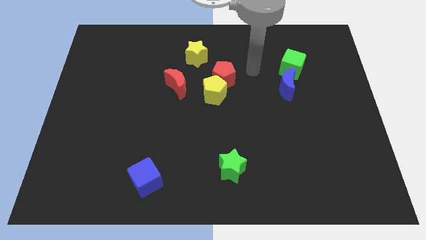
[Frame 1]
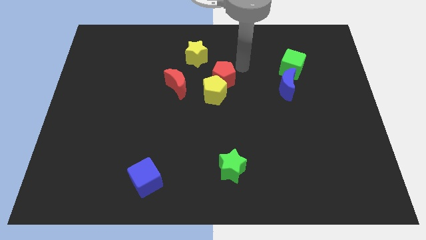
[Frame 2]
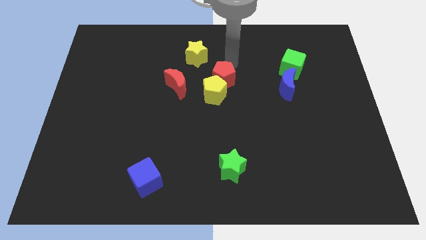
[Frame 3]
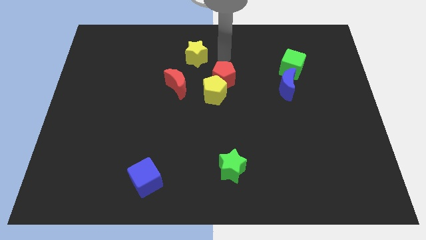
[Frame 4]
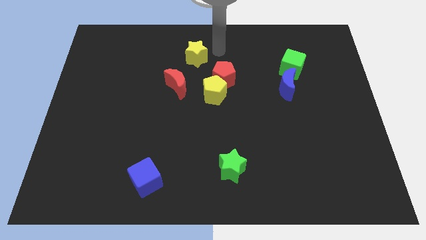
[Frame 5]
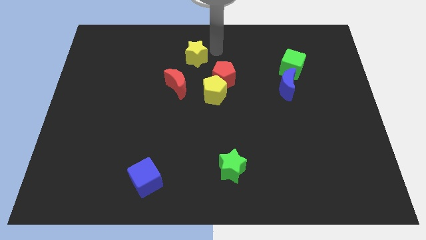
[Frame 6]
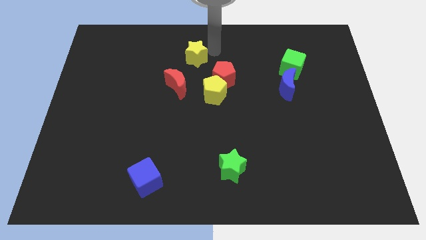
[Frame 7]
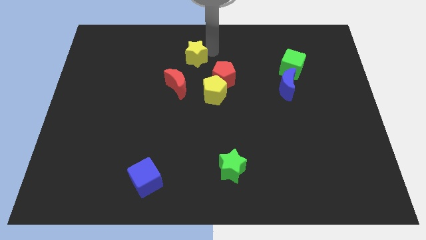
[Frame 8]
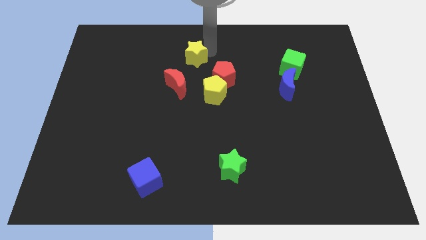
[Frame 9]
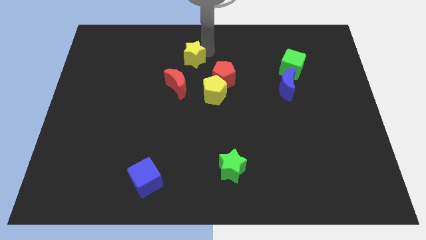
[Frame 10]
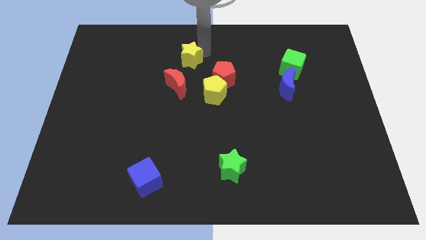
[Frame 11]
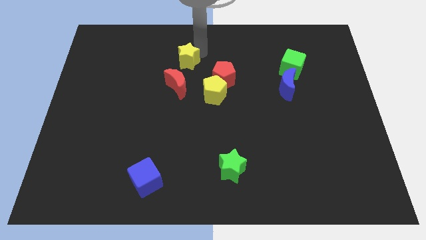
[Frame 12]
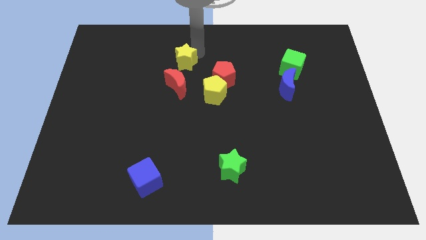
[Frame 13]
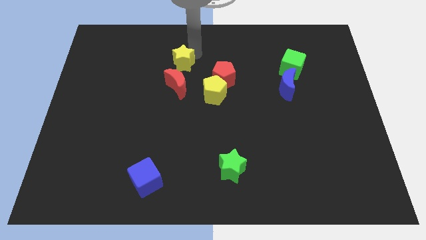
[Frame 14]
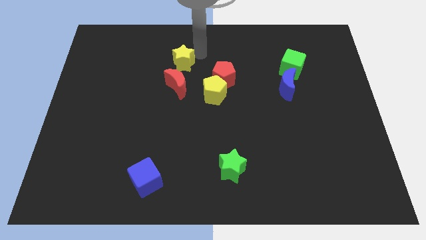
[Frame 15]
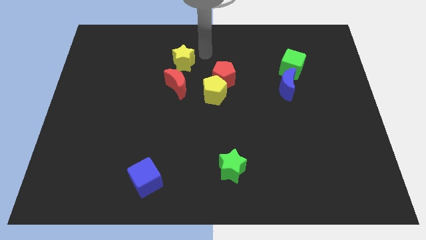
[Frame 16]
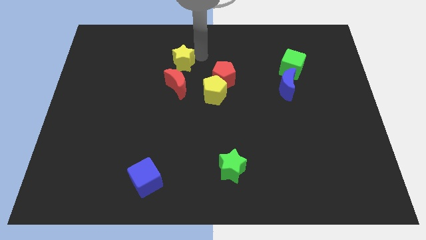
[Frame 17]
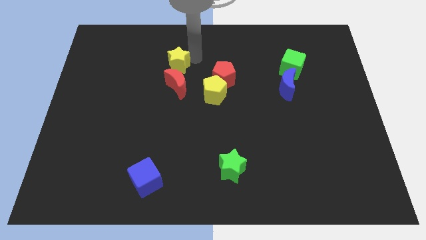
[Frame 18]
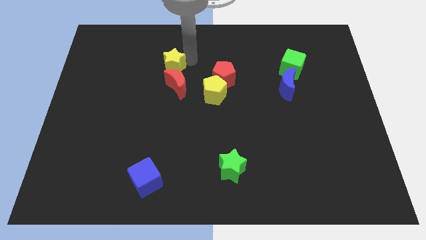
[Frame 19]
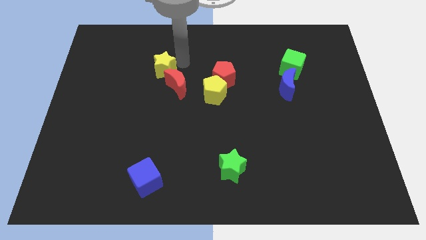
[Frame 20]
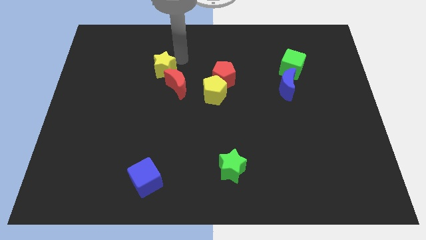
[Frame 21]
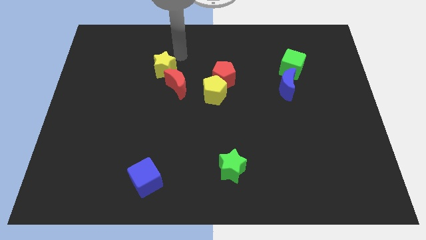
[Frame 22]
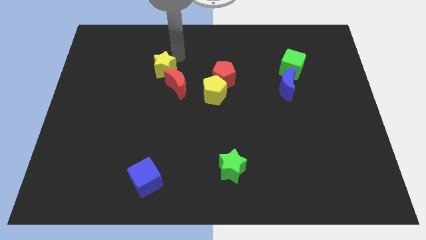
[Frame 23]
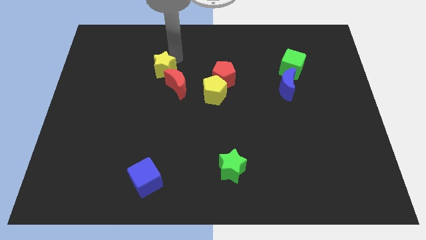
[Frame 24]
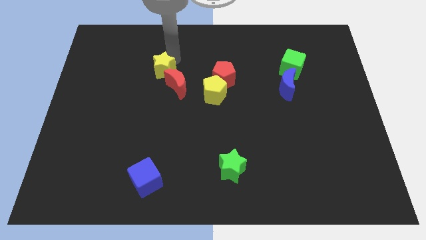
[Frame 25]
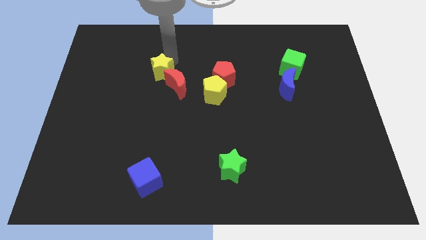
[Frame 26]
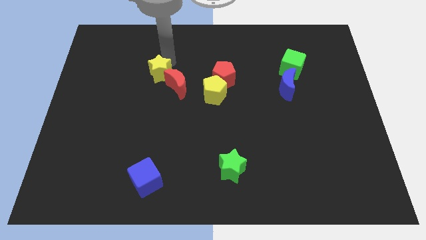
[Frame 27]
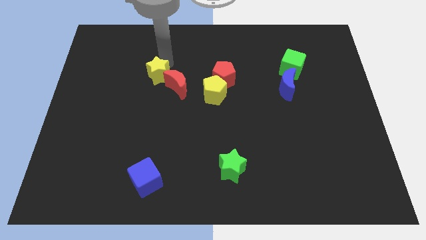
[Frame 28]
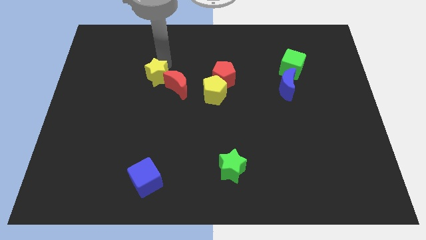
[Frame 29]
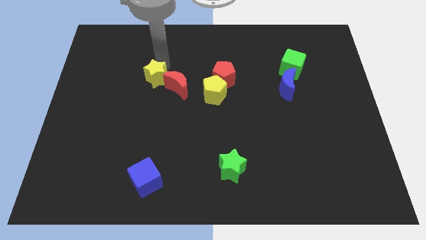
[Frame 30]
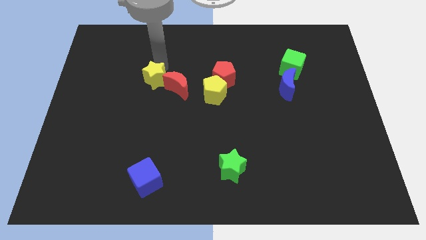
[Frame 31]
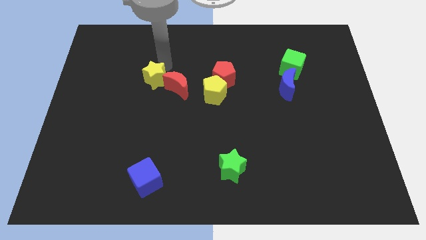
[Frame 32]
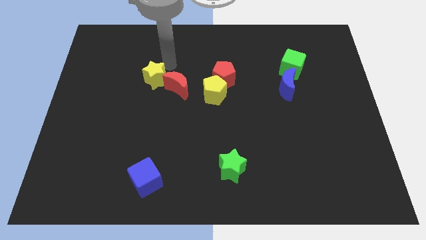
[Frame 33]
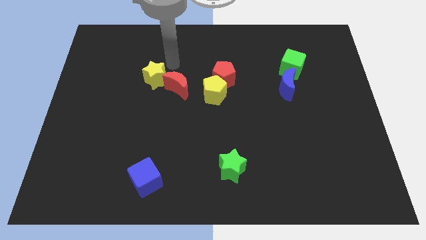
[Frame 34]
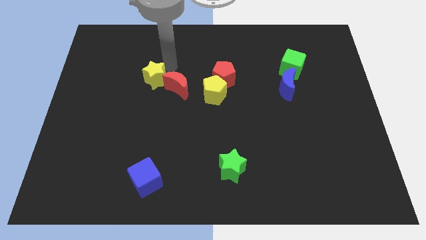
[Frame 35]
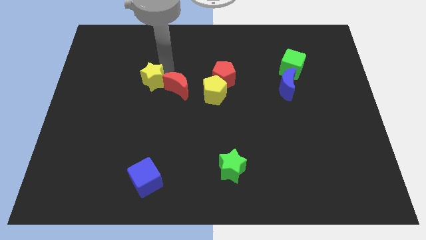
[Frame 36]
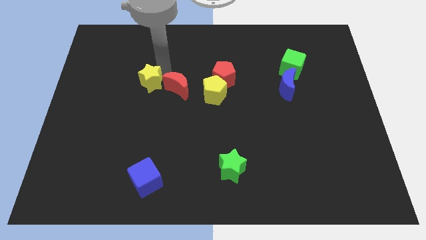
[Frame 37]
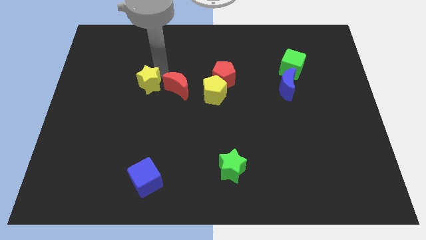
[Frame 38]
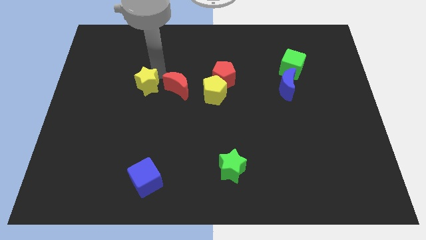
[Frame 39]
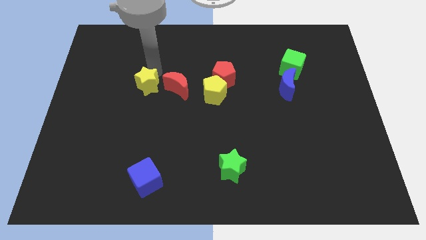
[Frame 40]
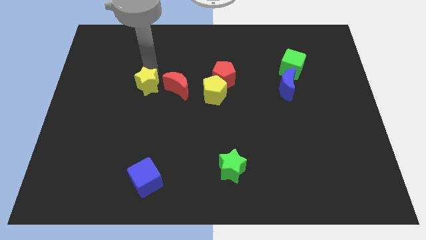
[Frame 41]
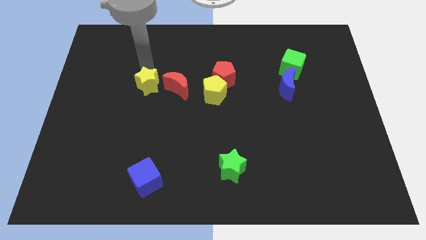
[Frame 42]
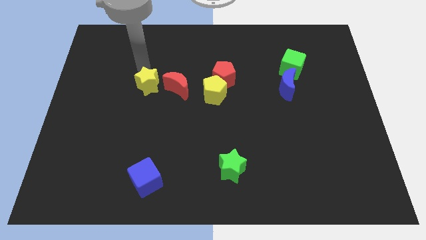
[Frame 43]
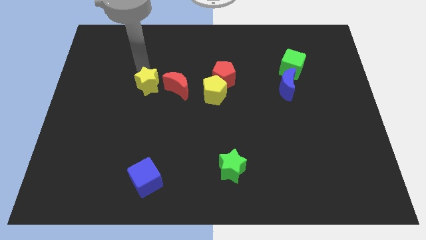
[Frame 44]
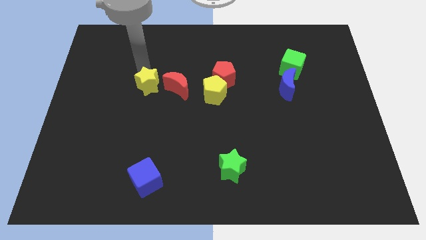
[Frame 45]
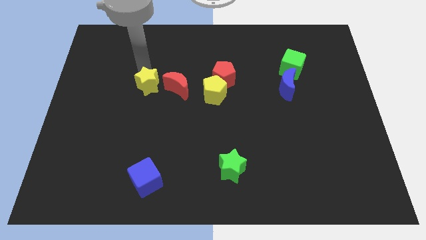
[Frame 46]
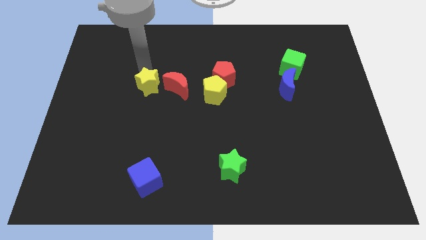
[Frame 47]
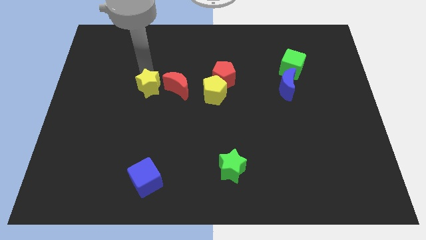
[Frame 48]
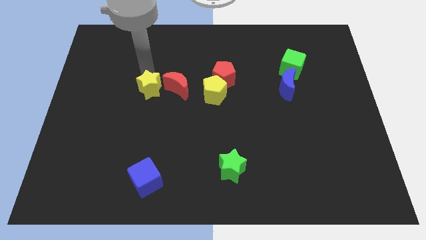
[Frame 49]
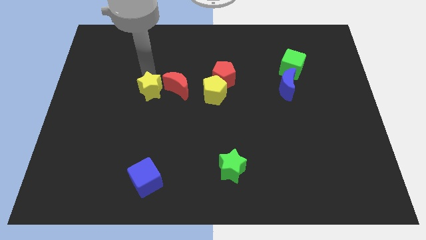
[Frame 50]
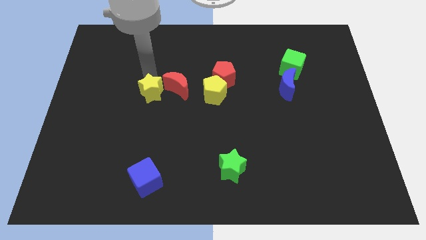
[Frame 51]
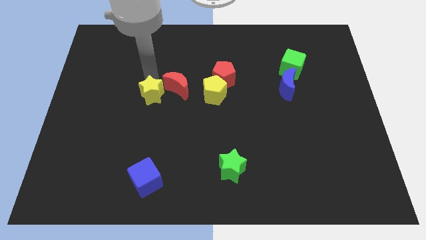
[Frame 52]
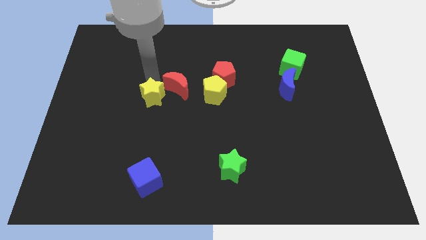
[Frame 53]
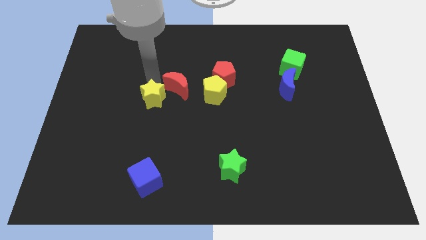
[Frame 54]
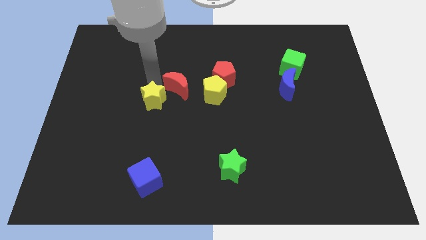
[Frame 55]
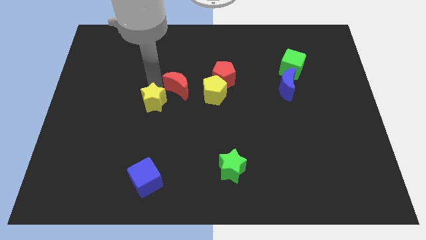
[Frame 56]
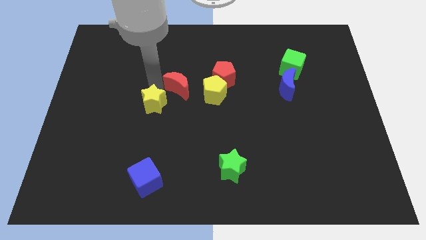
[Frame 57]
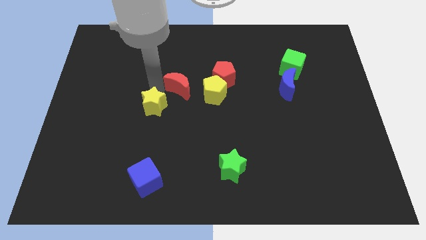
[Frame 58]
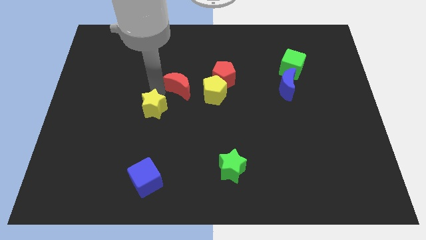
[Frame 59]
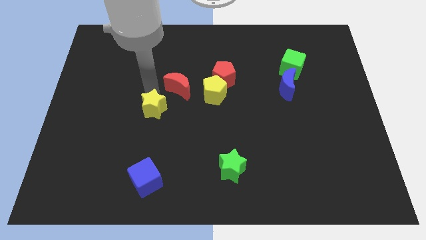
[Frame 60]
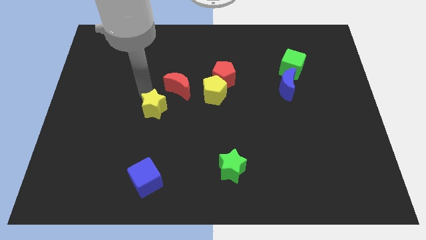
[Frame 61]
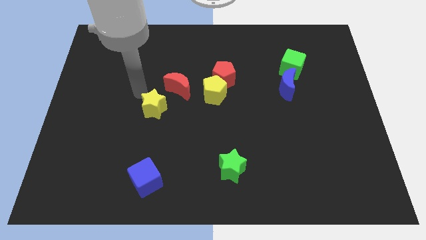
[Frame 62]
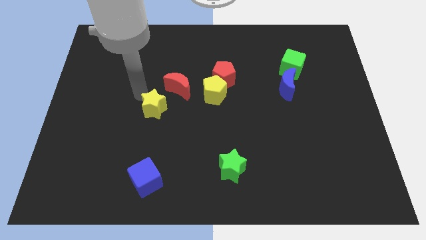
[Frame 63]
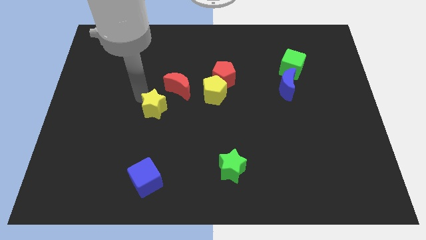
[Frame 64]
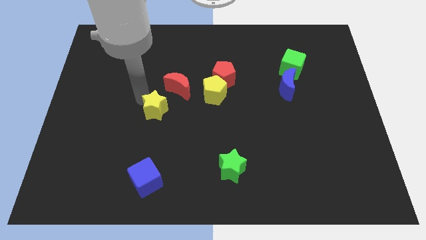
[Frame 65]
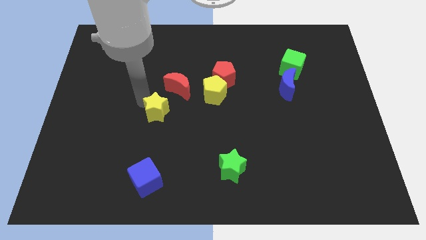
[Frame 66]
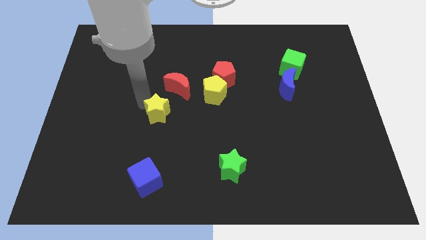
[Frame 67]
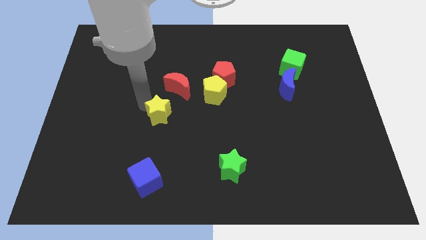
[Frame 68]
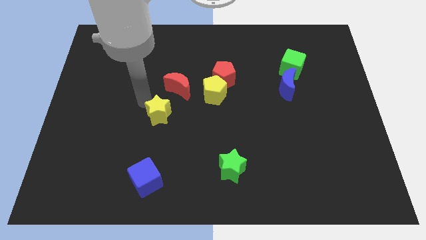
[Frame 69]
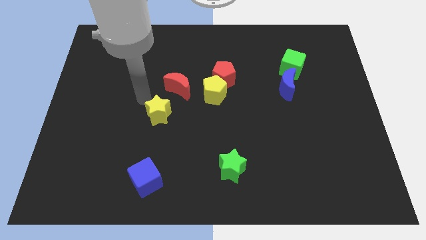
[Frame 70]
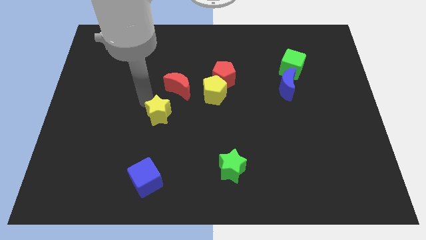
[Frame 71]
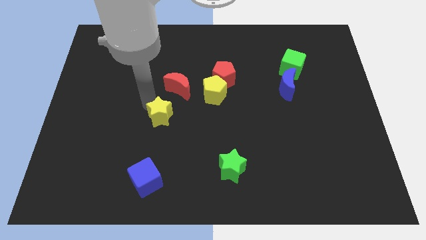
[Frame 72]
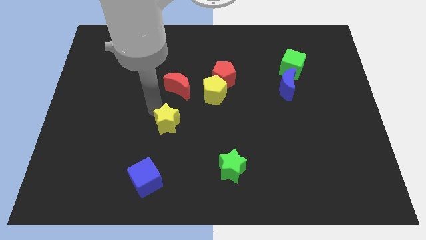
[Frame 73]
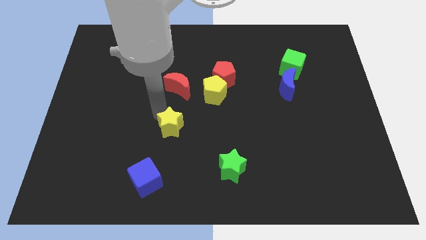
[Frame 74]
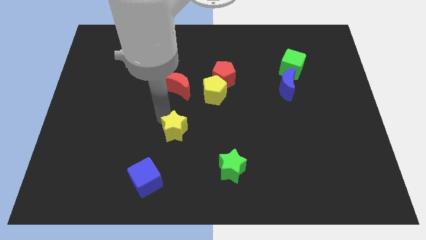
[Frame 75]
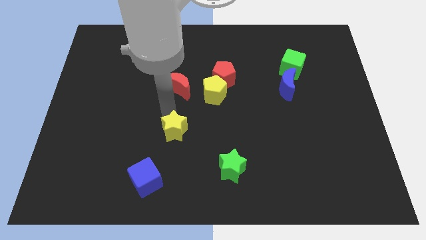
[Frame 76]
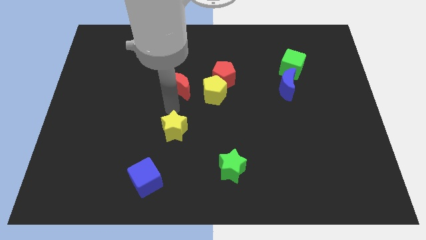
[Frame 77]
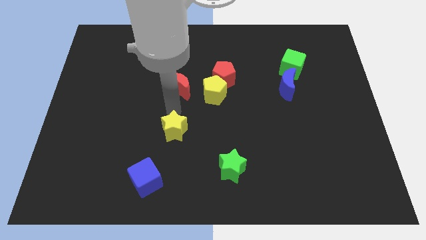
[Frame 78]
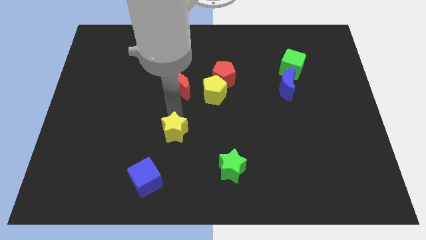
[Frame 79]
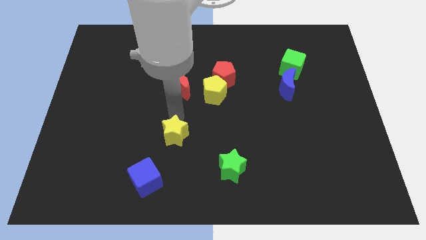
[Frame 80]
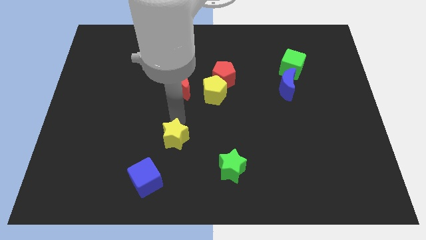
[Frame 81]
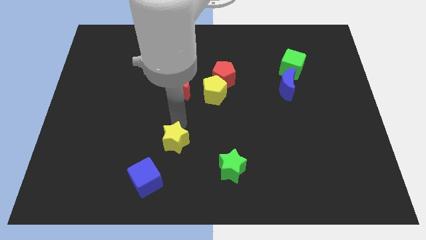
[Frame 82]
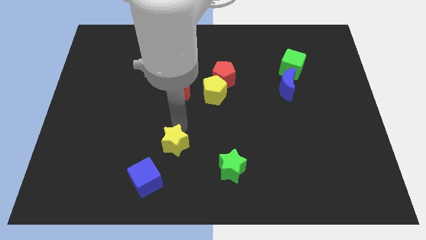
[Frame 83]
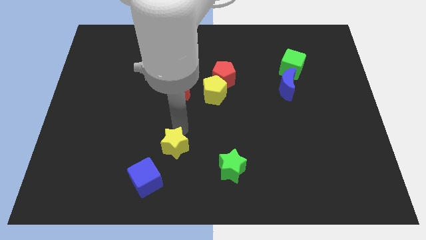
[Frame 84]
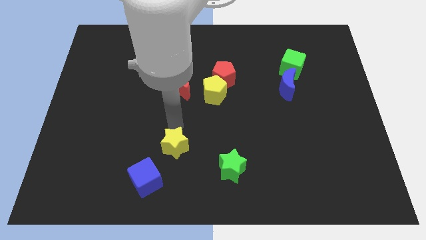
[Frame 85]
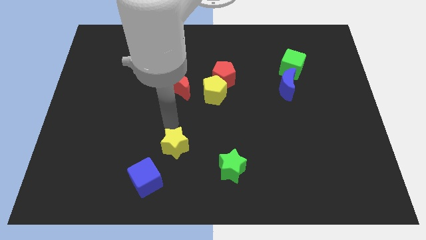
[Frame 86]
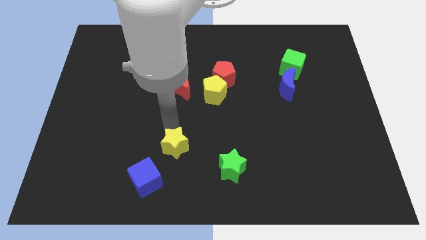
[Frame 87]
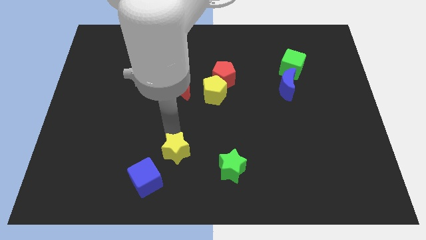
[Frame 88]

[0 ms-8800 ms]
push the yellow star to the left of the green star
